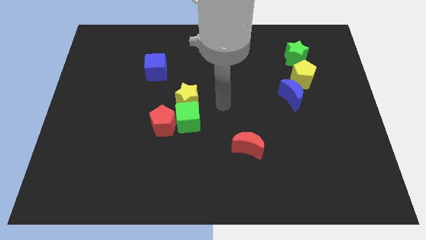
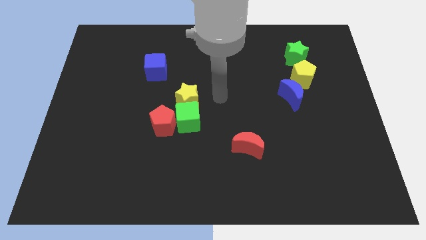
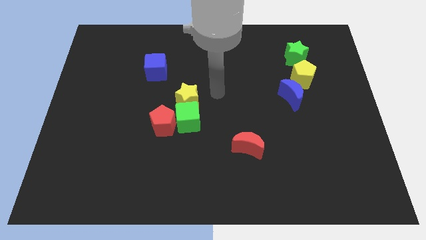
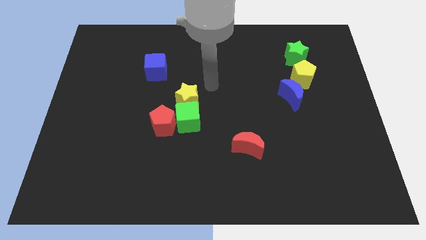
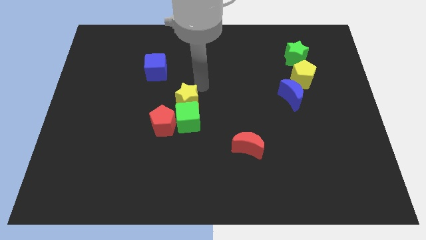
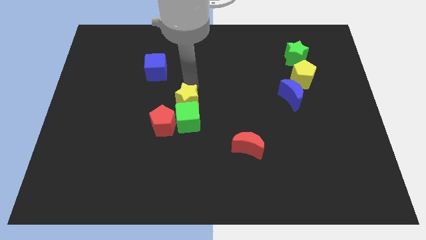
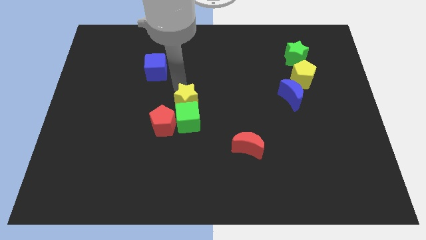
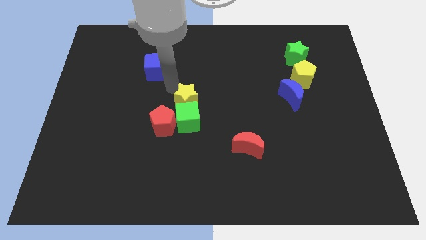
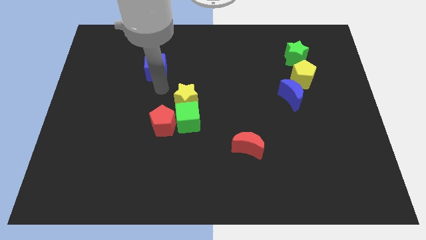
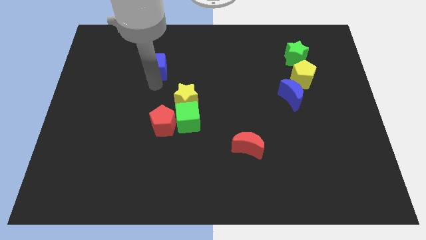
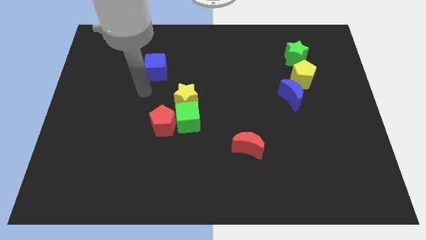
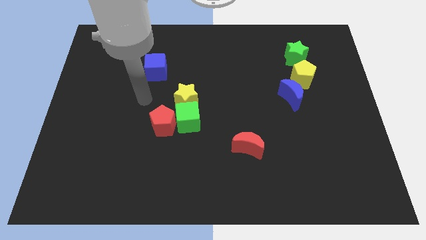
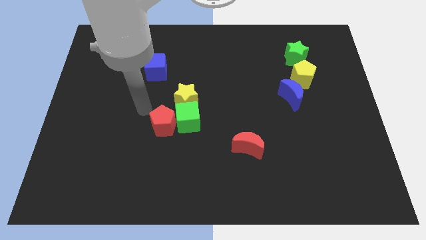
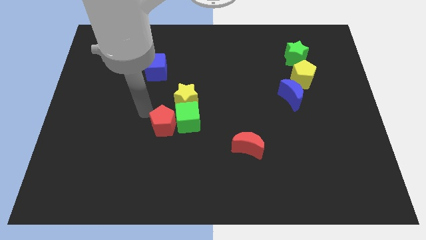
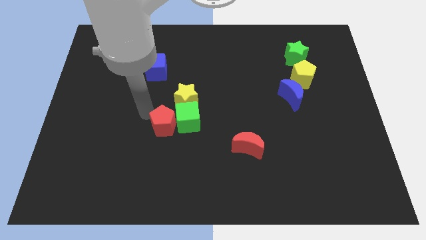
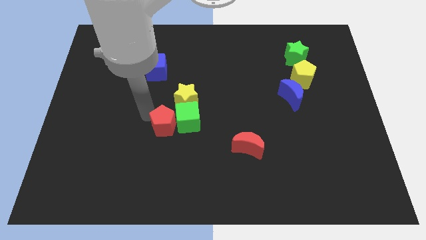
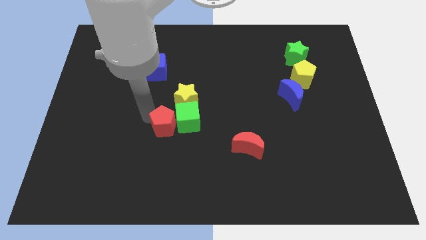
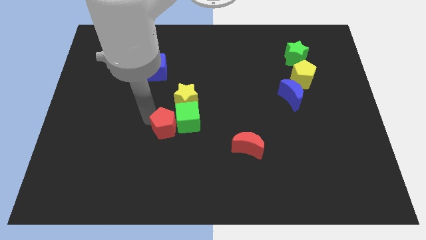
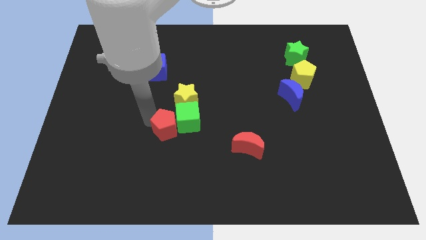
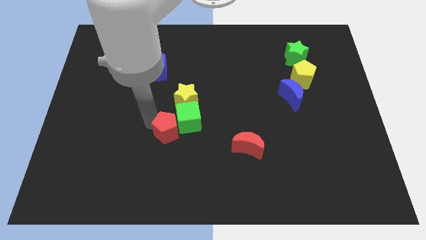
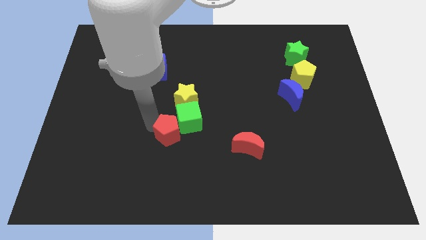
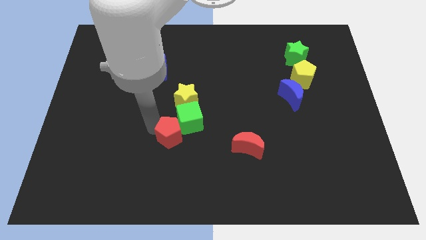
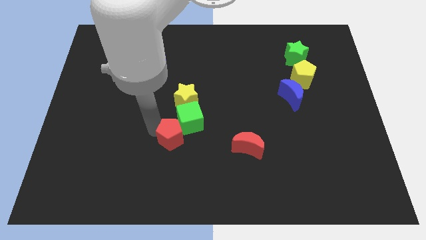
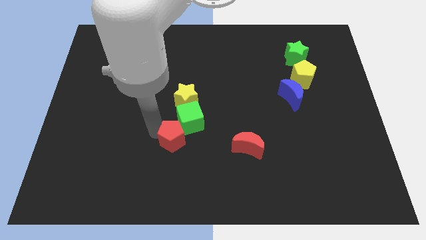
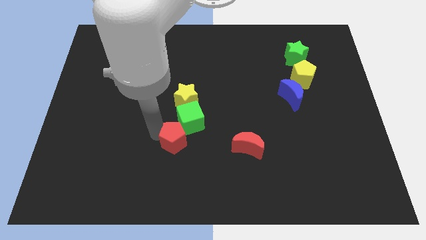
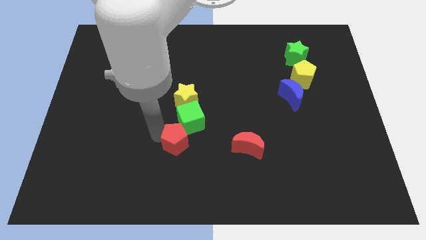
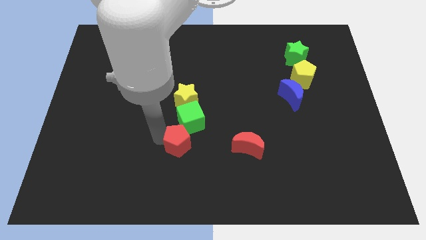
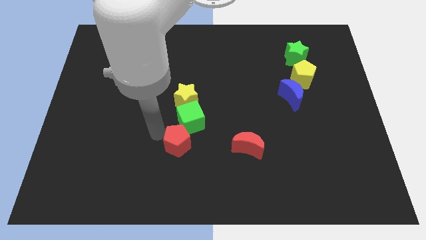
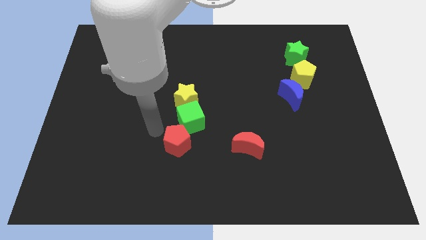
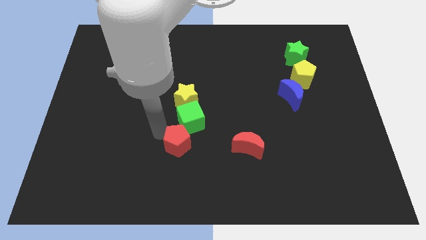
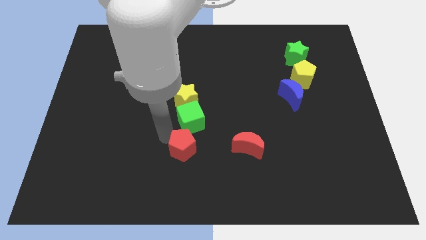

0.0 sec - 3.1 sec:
move the red pentagon somewhat diagonally down and to the right

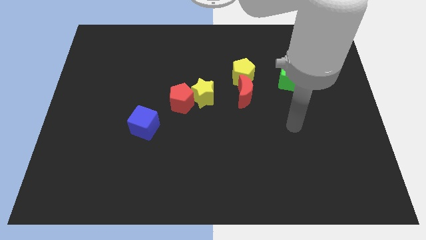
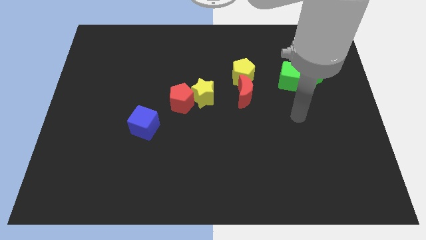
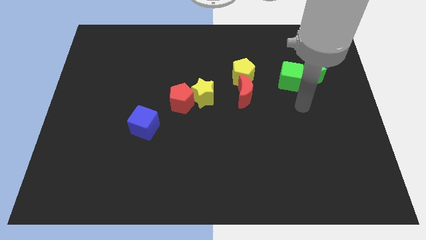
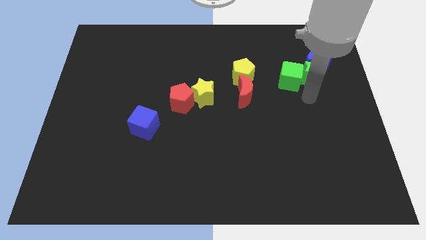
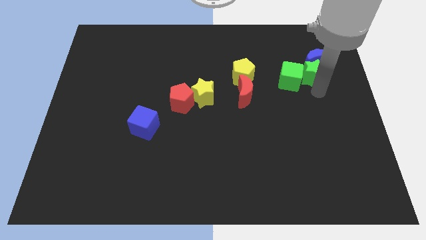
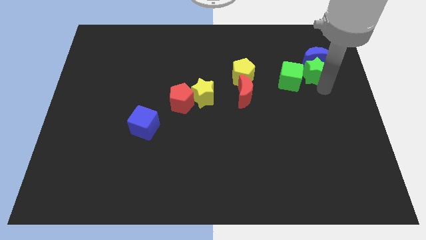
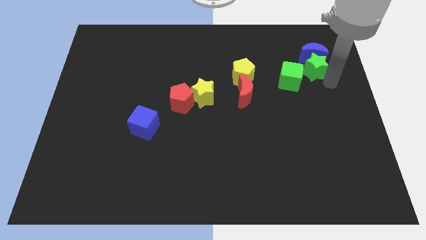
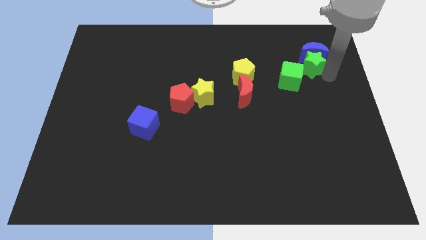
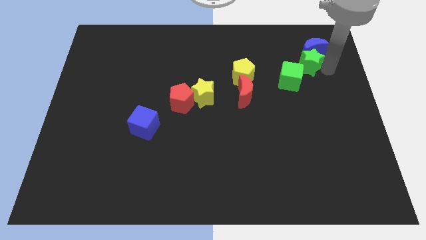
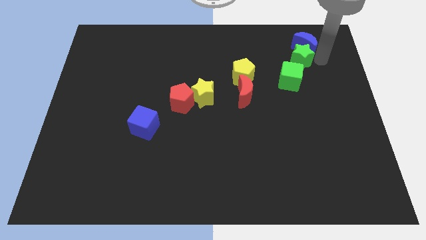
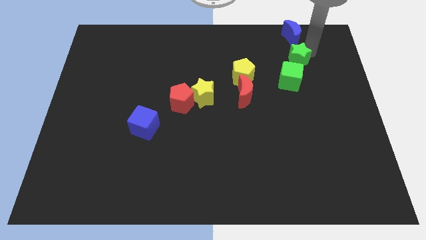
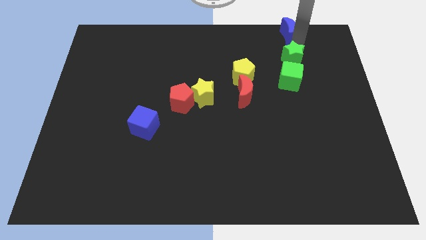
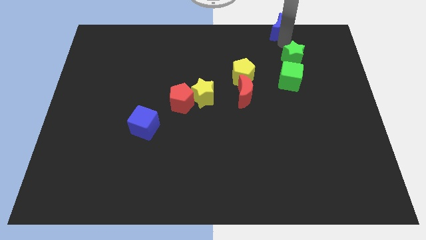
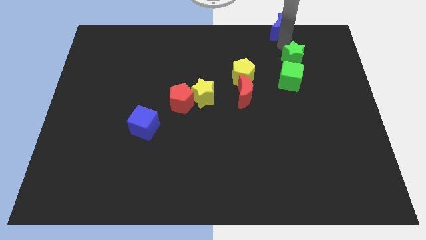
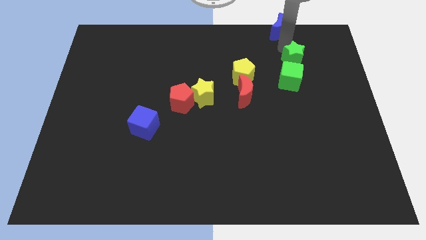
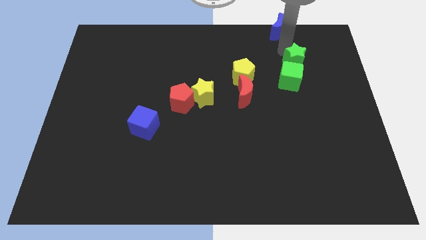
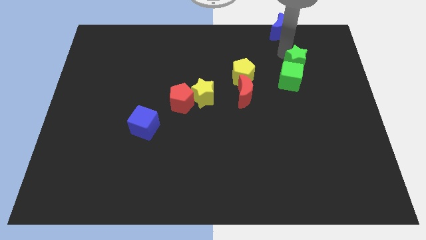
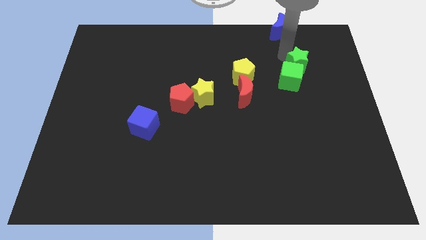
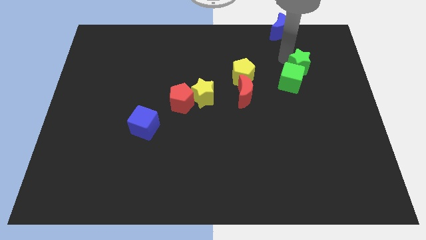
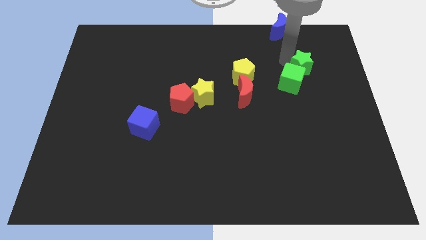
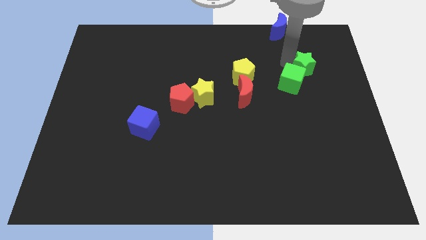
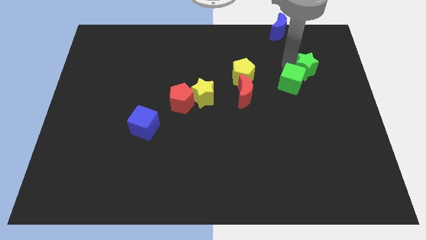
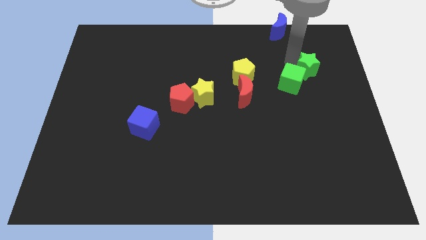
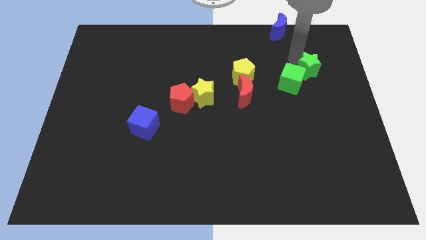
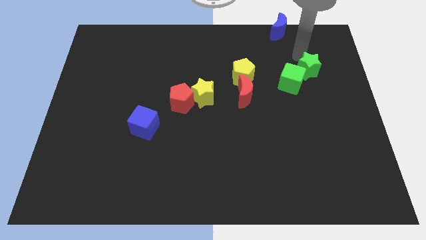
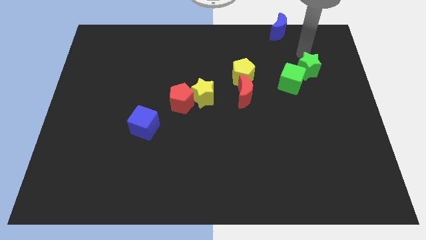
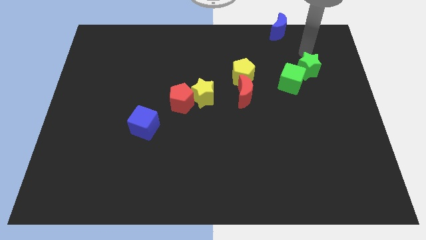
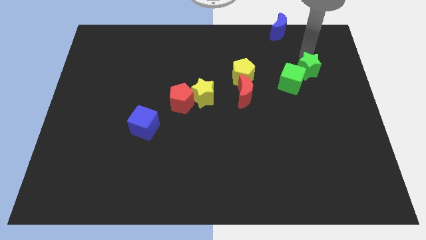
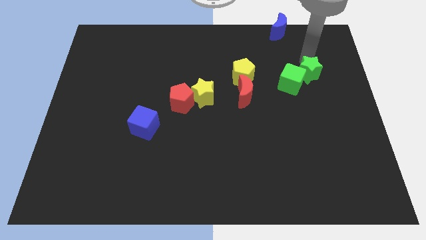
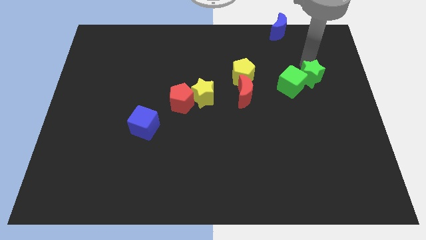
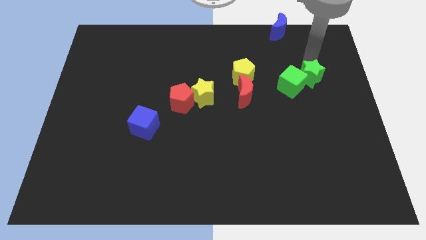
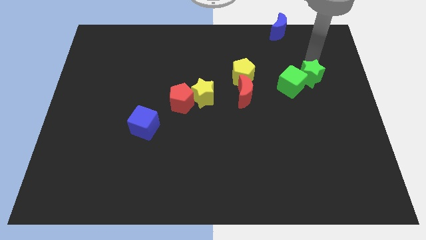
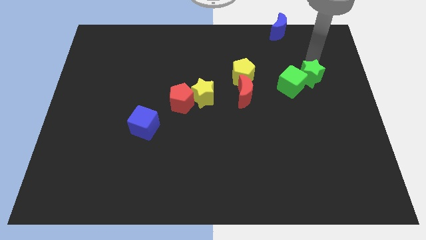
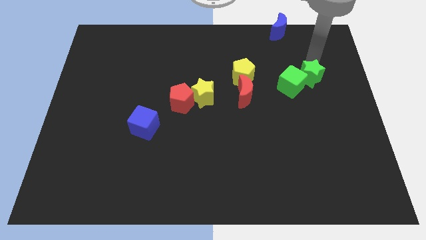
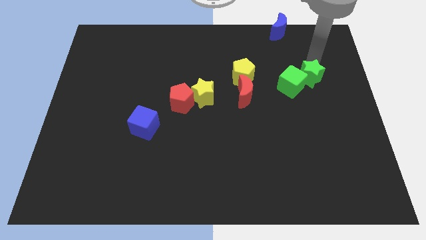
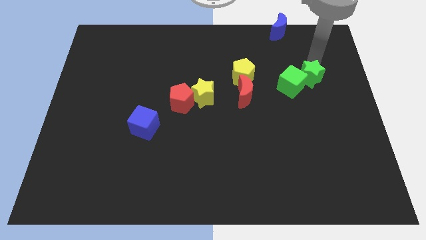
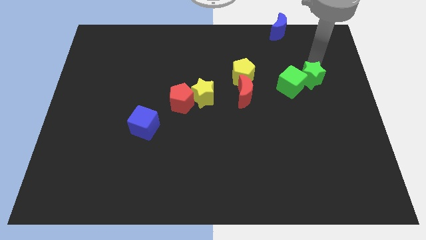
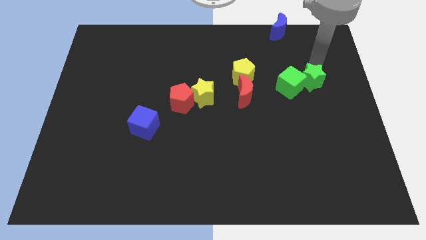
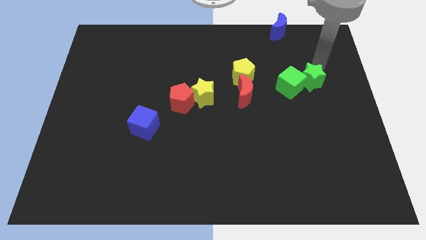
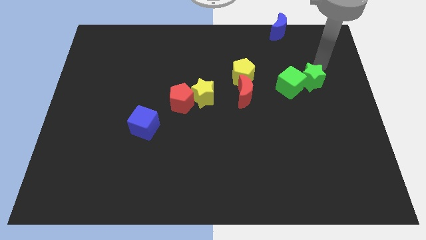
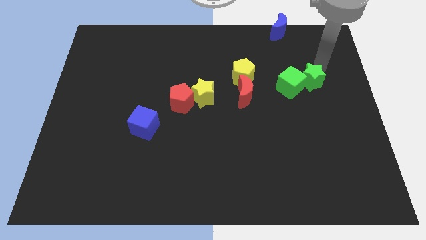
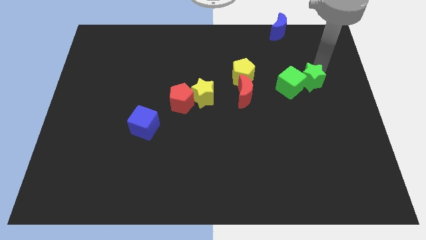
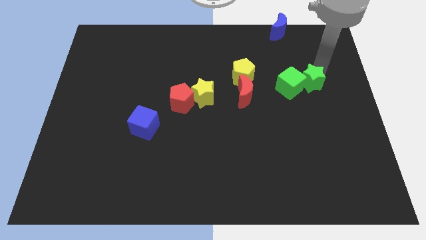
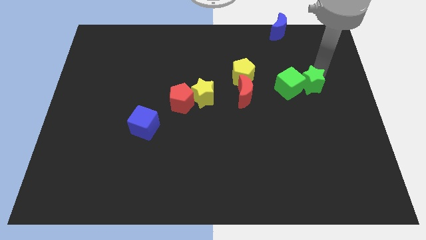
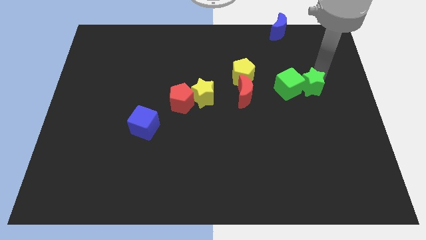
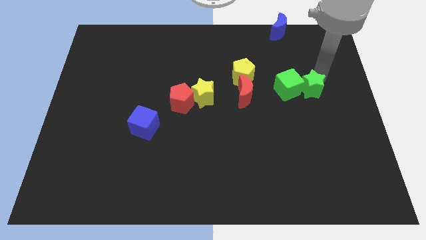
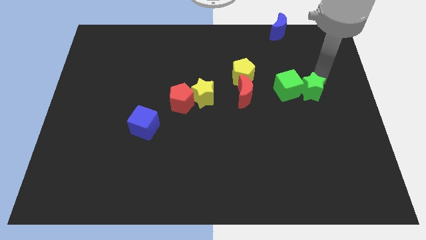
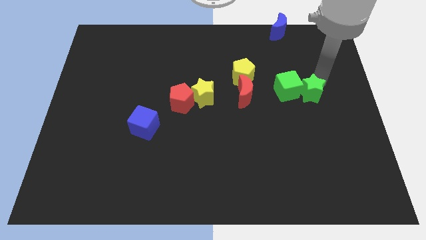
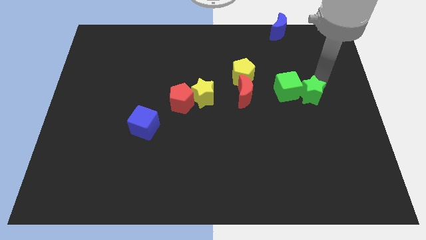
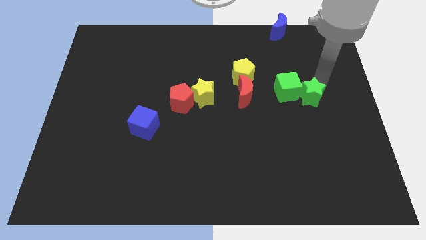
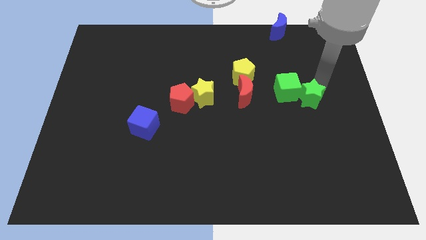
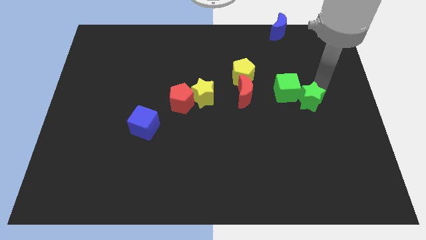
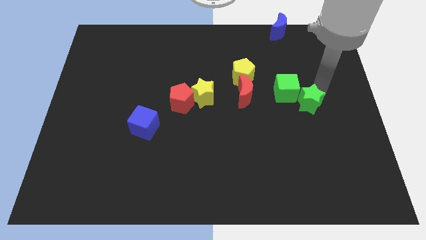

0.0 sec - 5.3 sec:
push the green star a bit diagonally down and left
